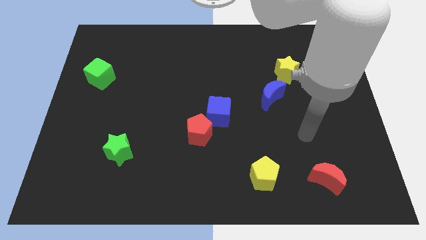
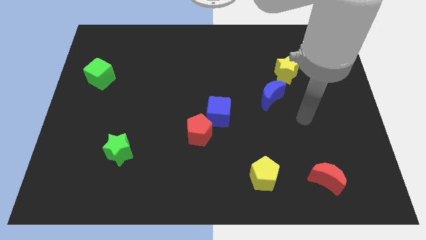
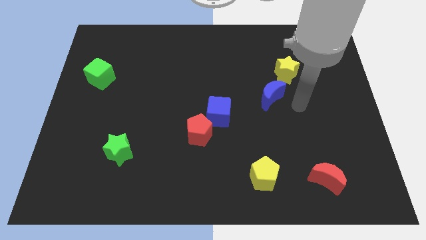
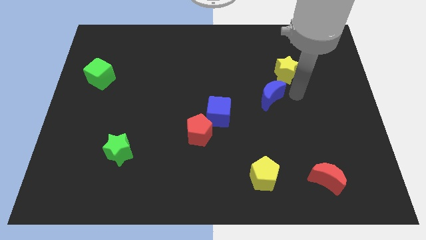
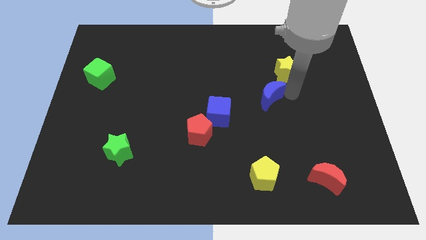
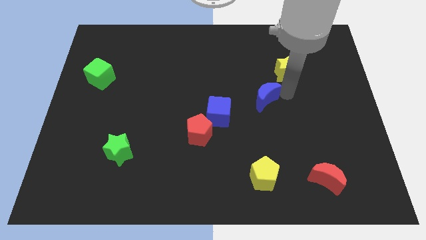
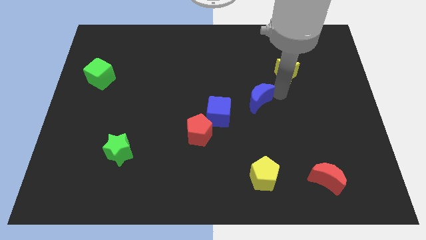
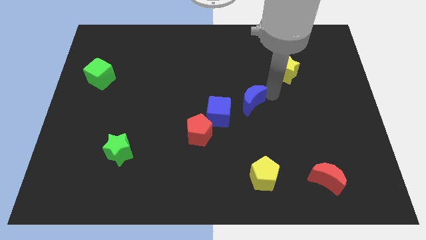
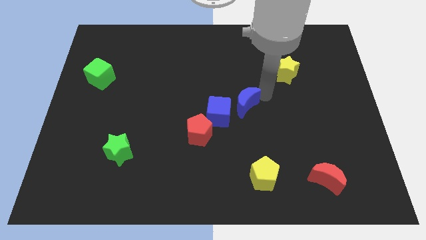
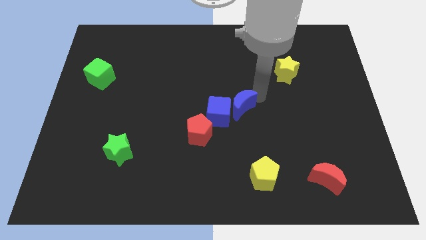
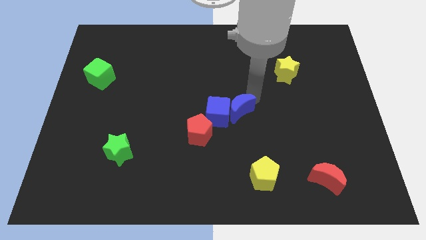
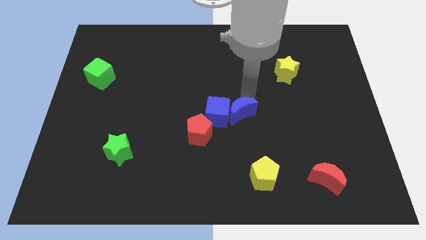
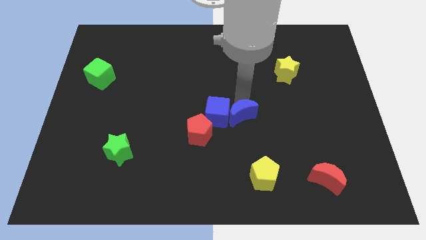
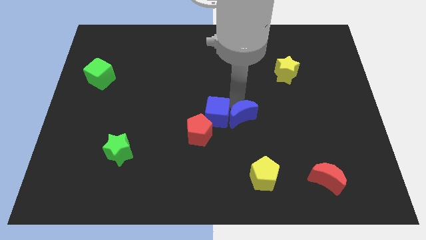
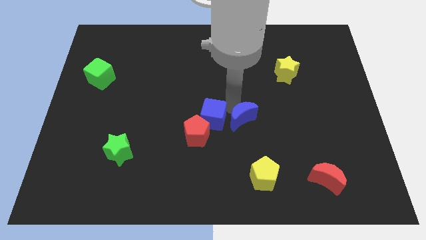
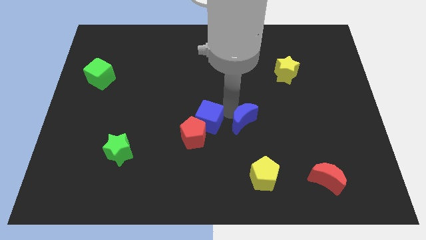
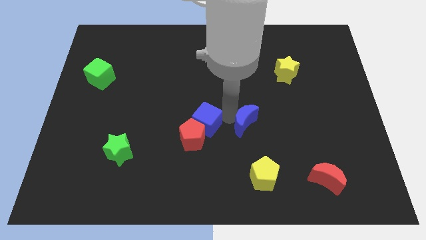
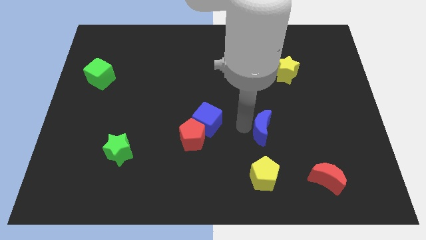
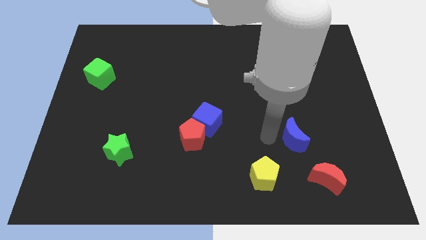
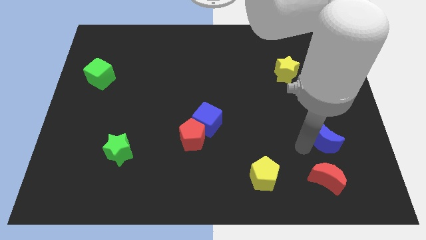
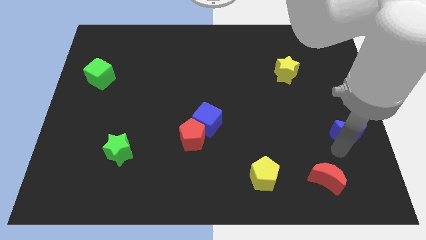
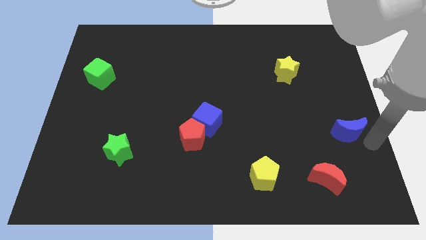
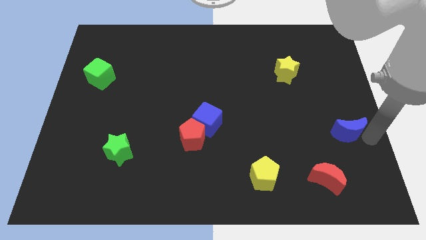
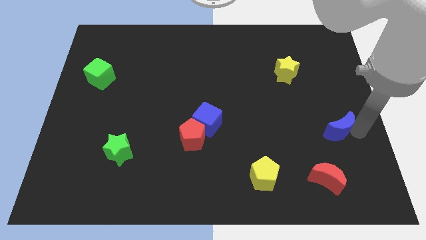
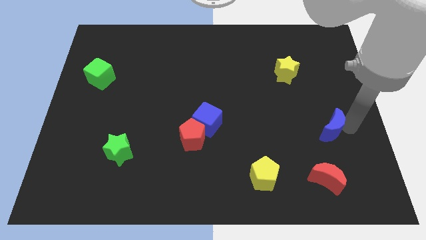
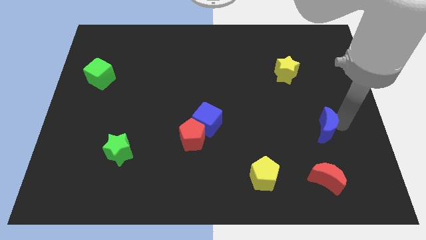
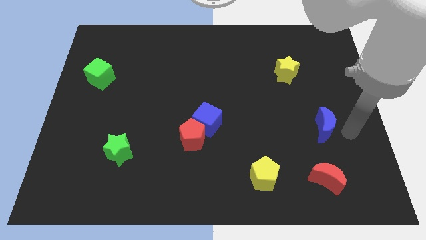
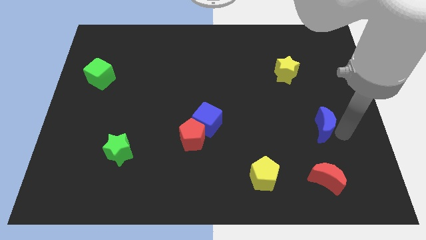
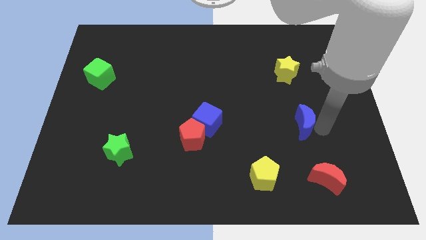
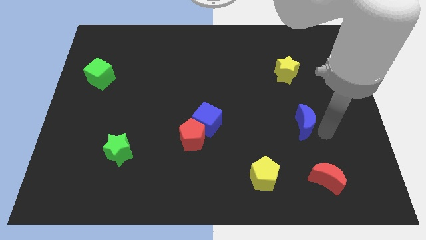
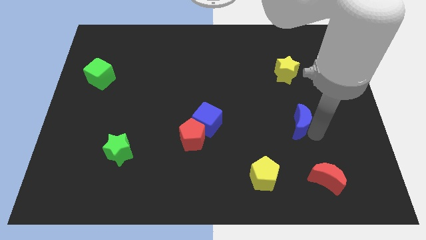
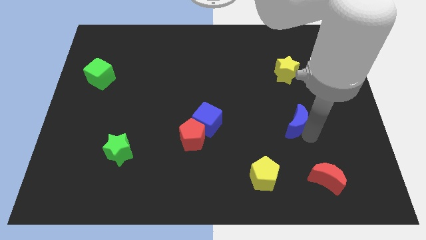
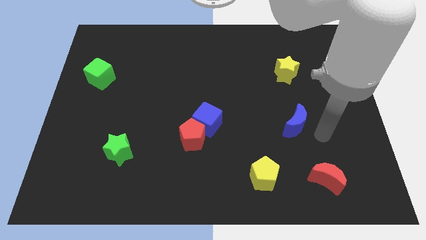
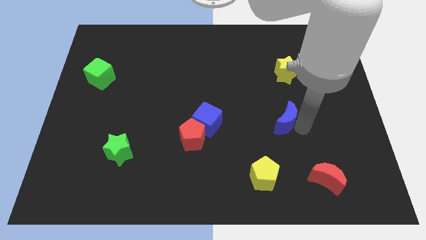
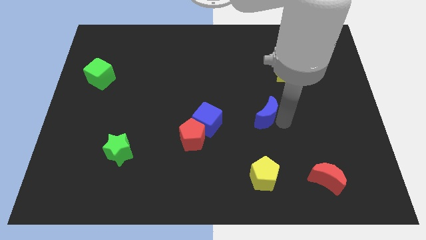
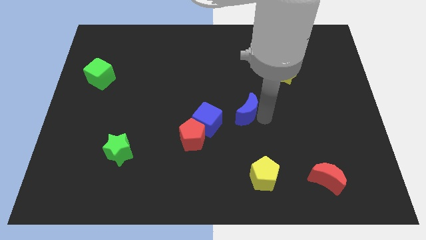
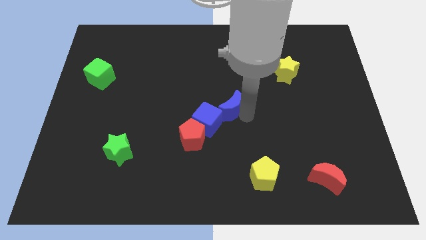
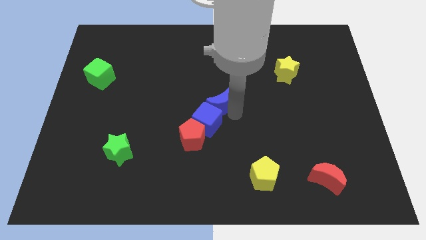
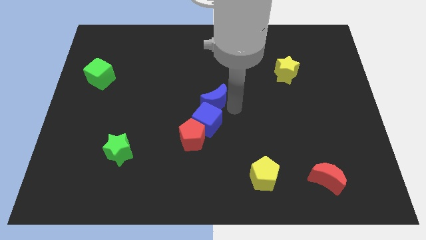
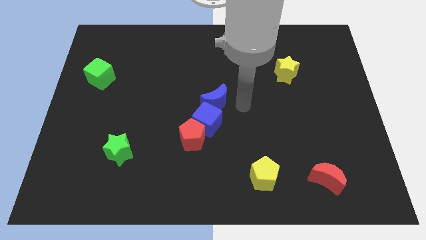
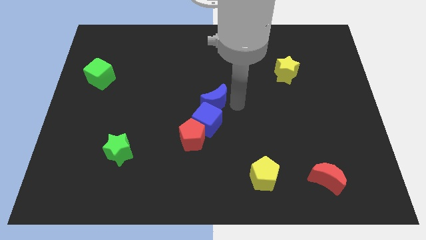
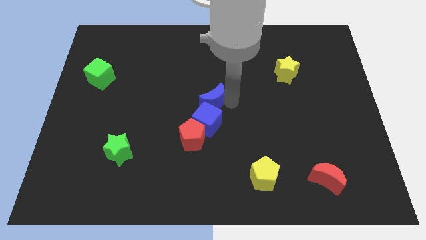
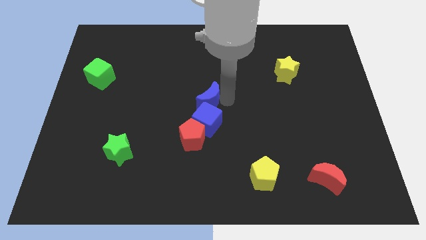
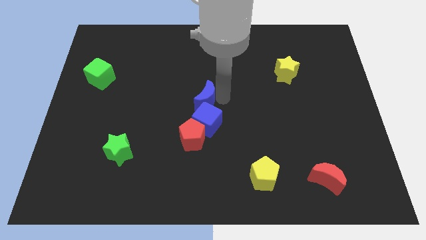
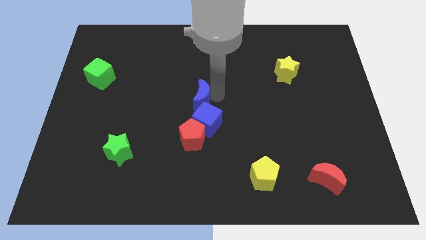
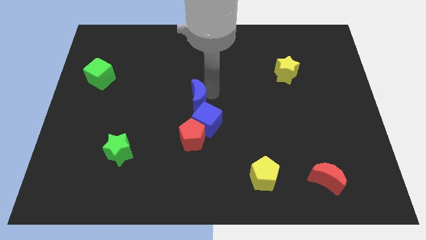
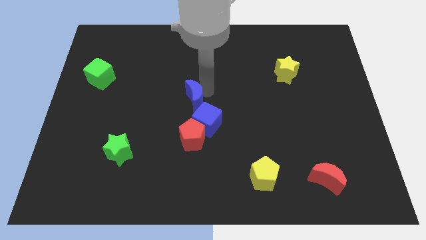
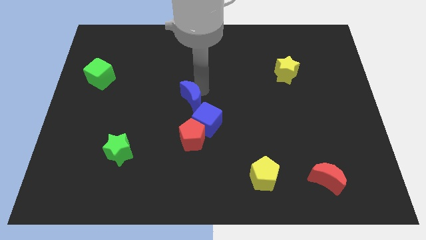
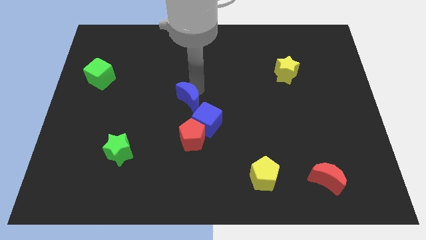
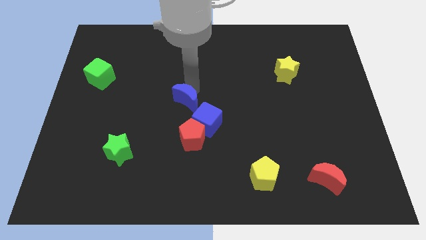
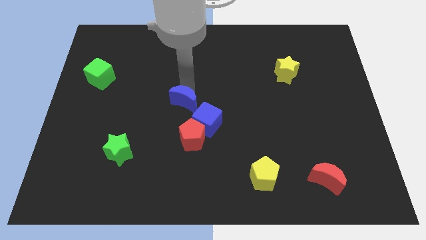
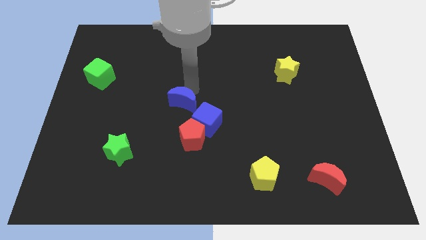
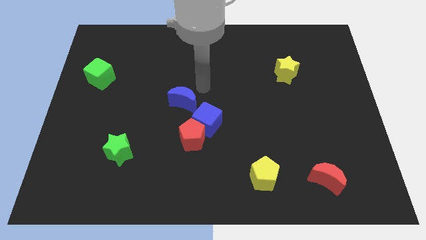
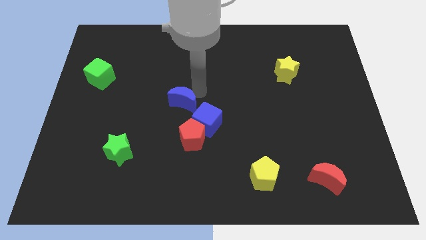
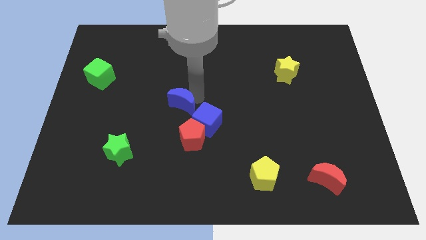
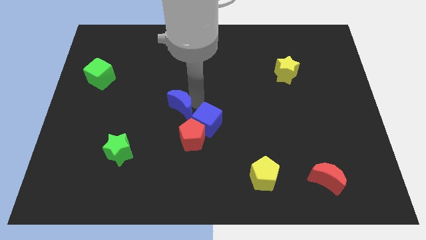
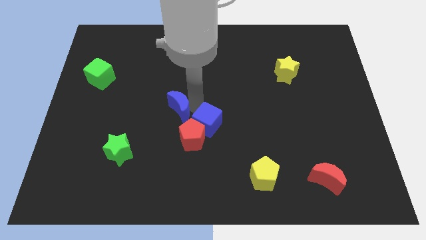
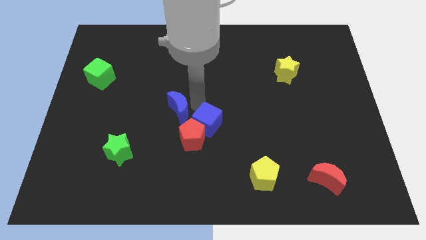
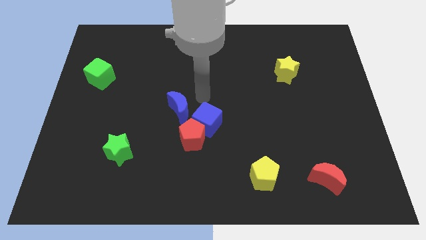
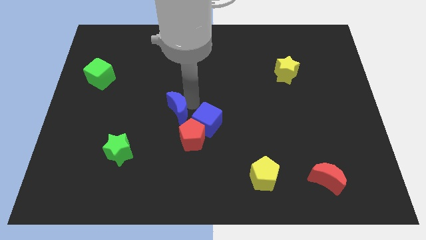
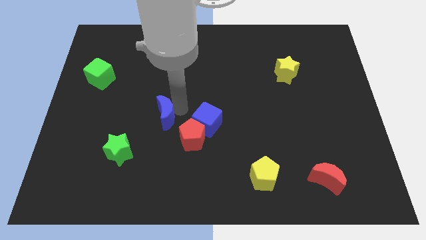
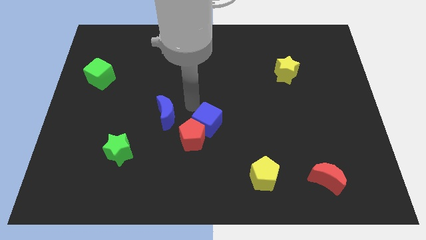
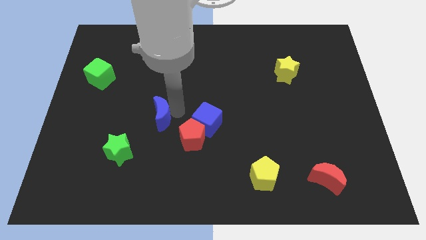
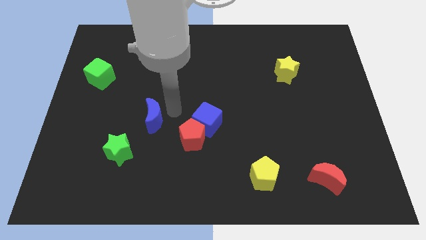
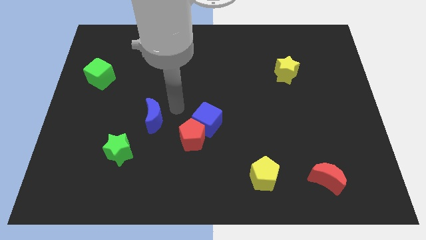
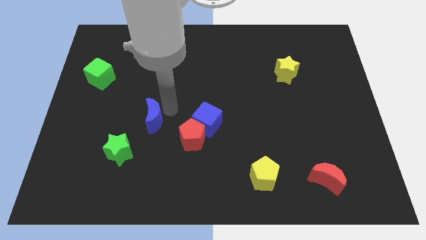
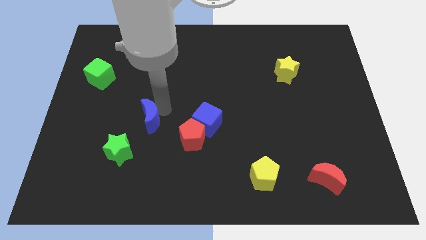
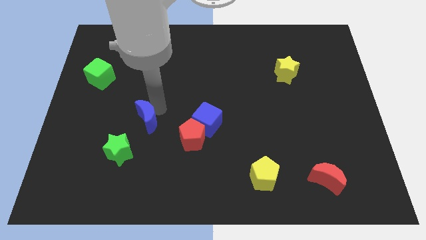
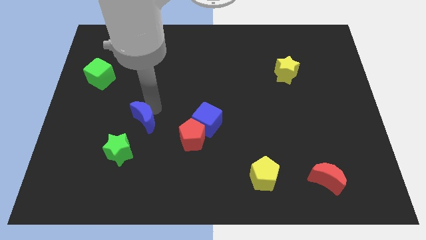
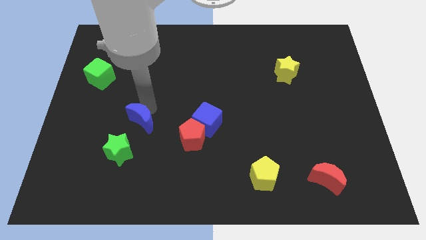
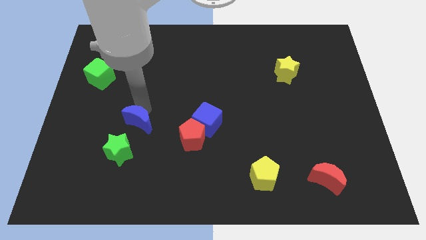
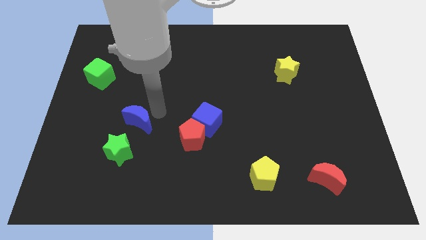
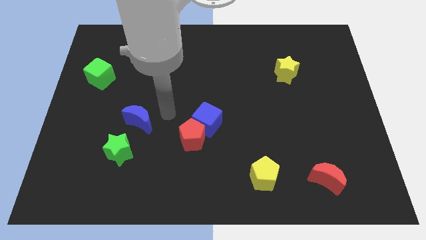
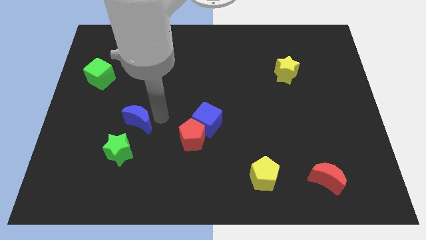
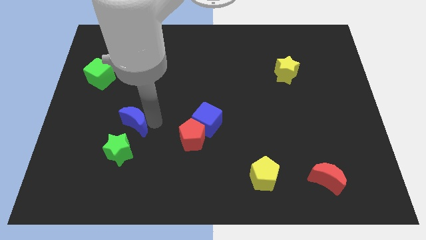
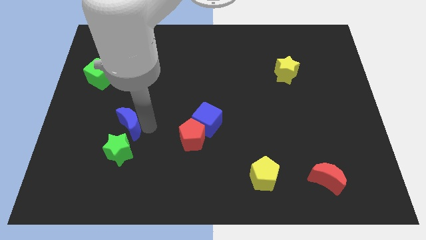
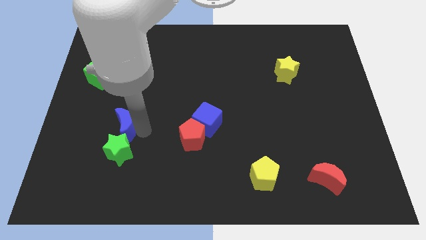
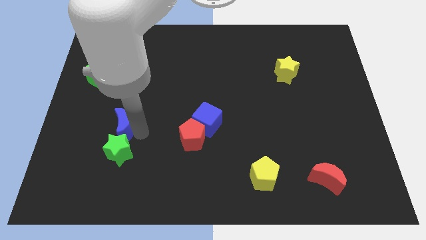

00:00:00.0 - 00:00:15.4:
move the blue moon to the top left of the green star
